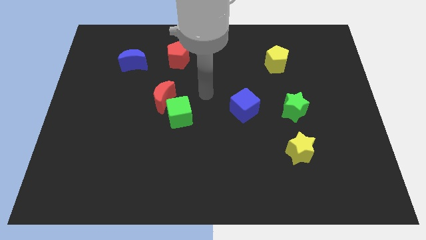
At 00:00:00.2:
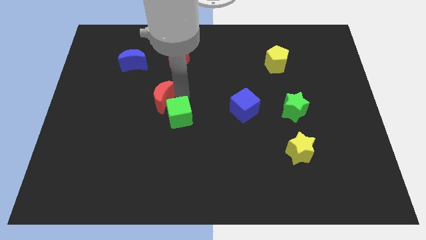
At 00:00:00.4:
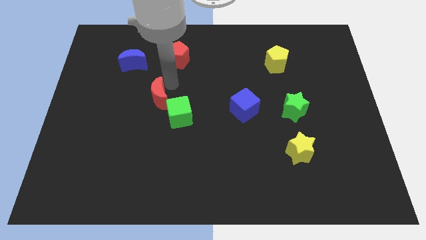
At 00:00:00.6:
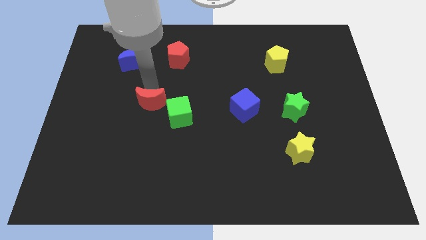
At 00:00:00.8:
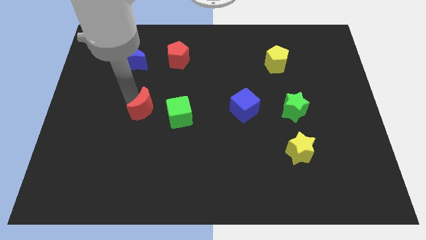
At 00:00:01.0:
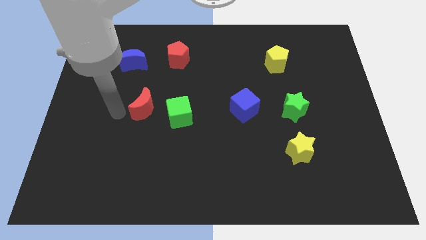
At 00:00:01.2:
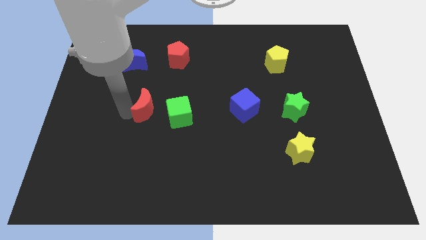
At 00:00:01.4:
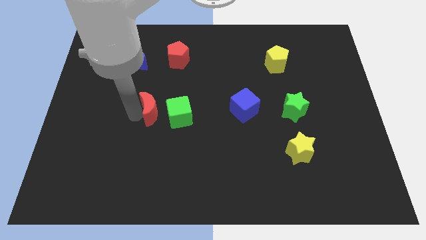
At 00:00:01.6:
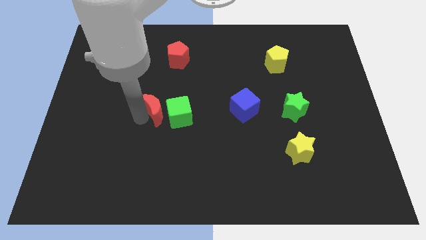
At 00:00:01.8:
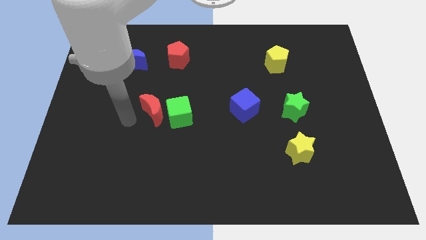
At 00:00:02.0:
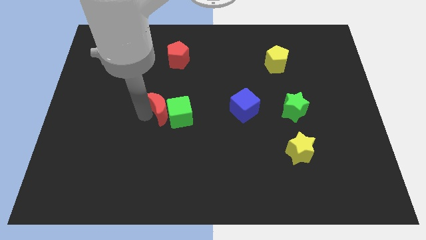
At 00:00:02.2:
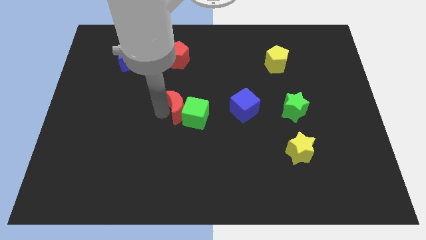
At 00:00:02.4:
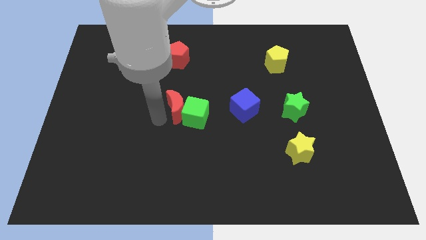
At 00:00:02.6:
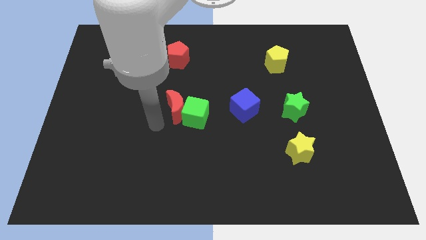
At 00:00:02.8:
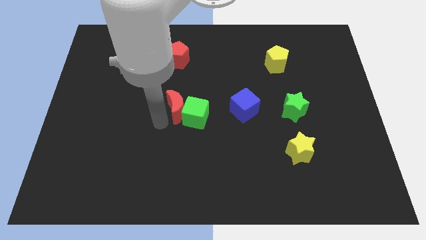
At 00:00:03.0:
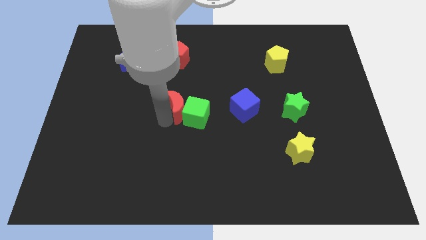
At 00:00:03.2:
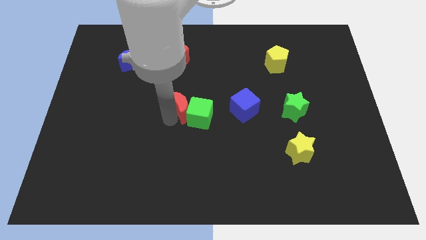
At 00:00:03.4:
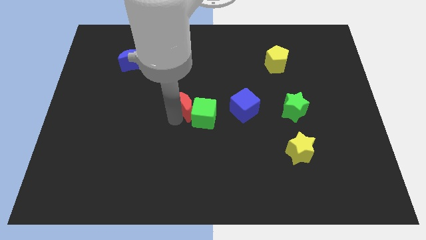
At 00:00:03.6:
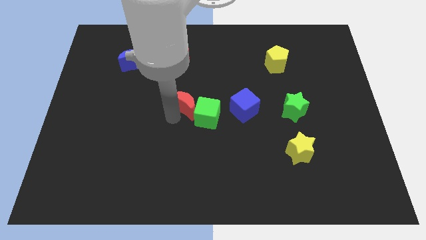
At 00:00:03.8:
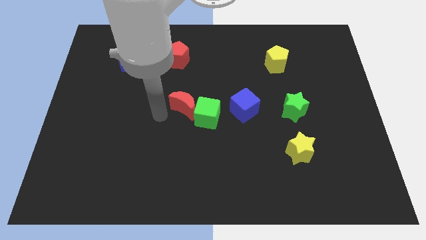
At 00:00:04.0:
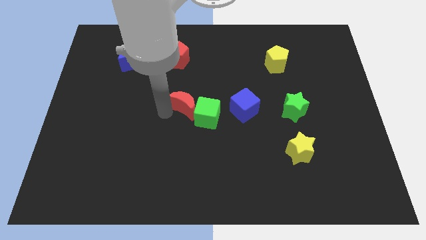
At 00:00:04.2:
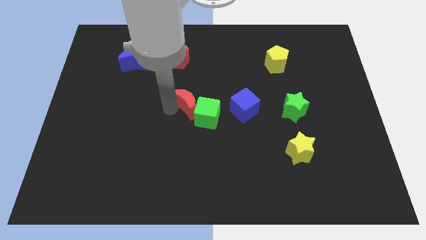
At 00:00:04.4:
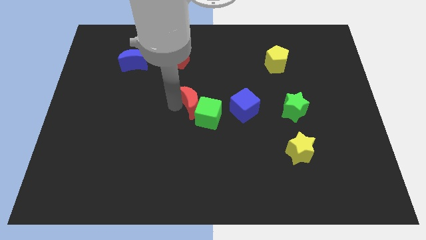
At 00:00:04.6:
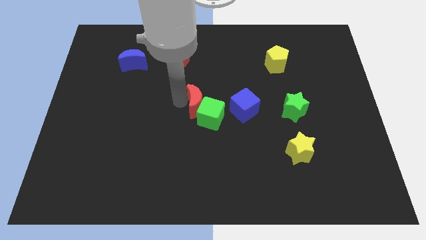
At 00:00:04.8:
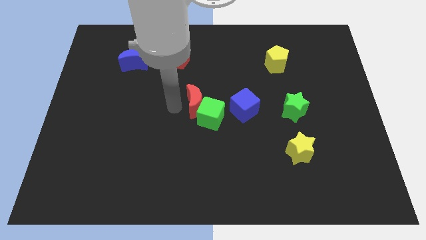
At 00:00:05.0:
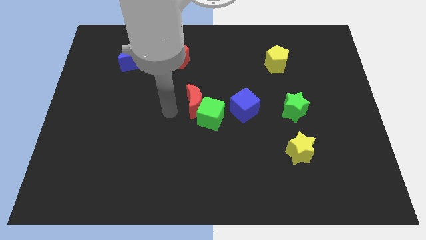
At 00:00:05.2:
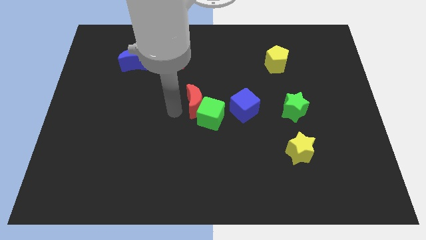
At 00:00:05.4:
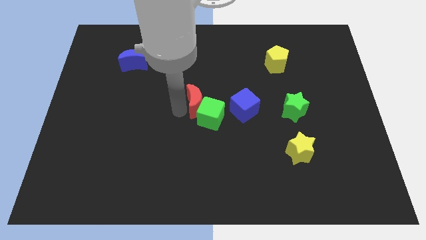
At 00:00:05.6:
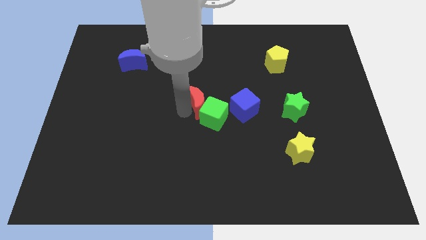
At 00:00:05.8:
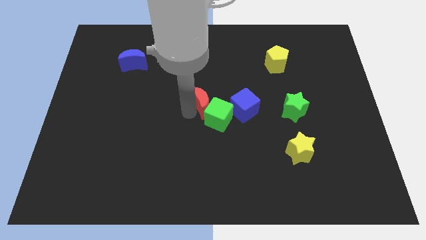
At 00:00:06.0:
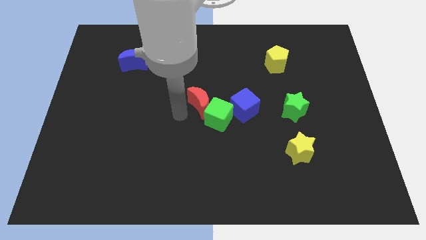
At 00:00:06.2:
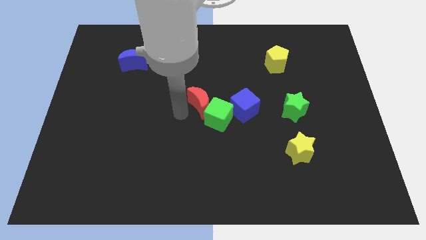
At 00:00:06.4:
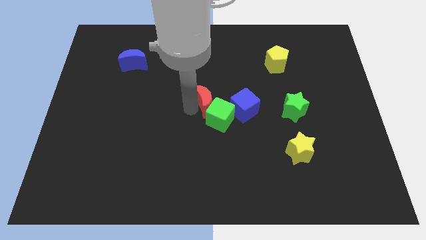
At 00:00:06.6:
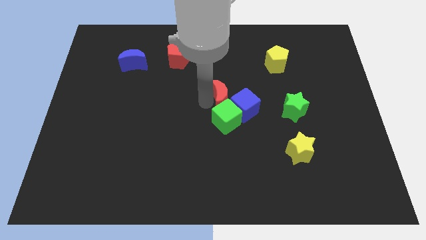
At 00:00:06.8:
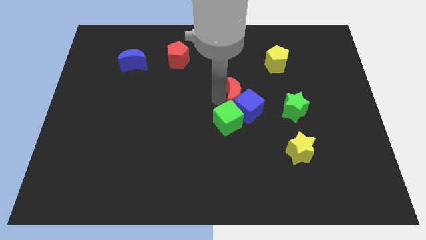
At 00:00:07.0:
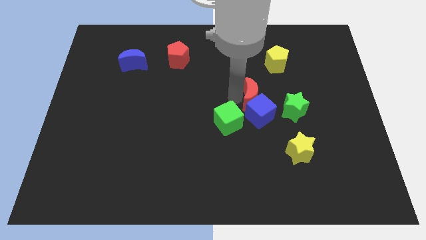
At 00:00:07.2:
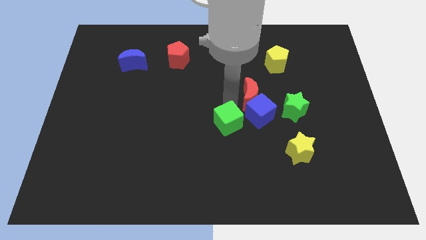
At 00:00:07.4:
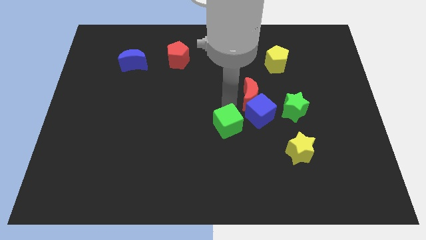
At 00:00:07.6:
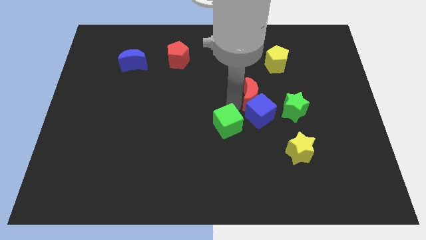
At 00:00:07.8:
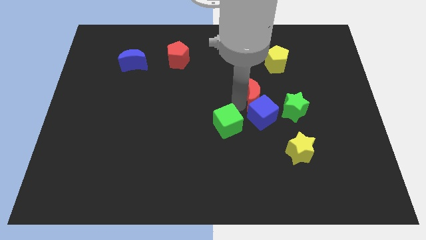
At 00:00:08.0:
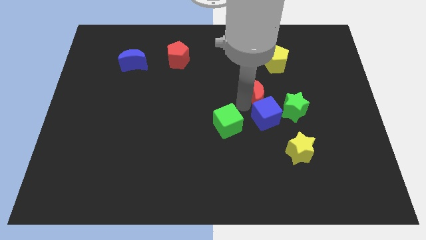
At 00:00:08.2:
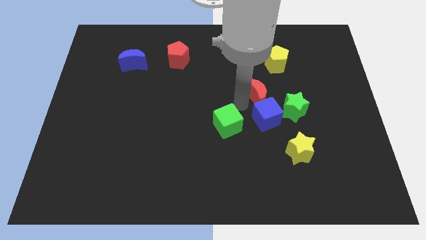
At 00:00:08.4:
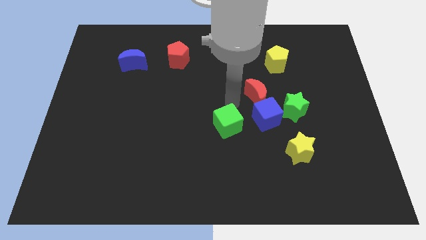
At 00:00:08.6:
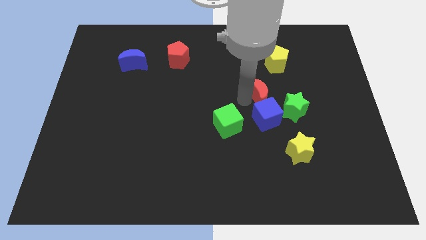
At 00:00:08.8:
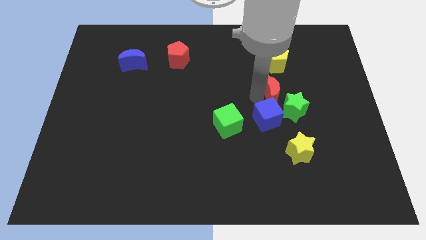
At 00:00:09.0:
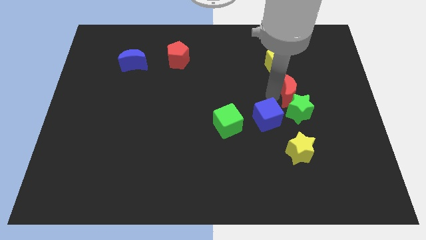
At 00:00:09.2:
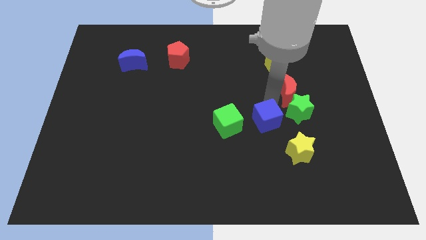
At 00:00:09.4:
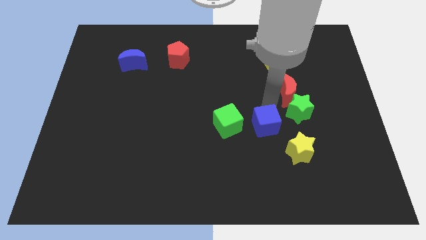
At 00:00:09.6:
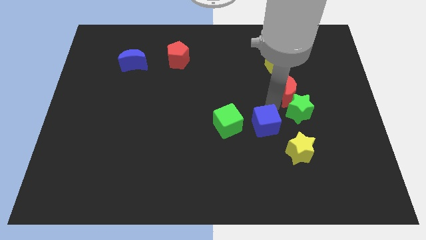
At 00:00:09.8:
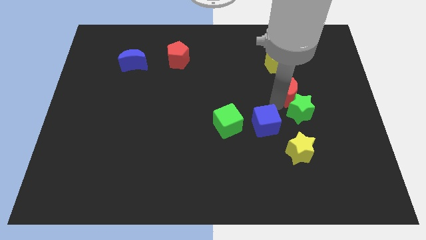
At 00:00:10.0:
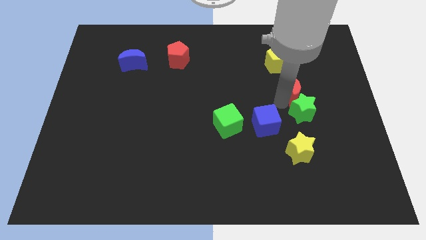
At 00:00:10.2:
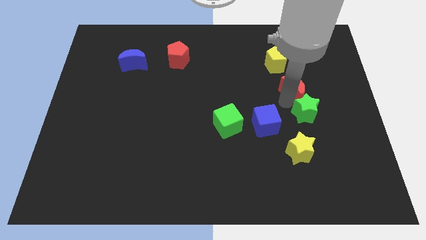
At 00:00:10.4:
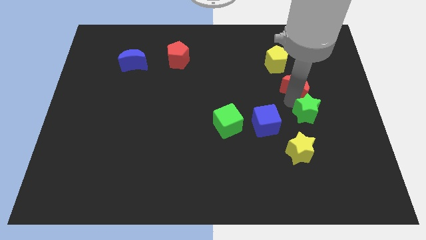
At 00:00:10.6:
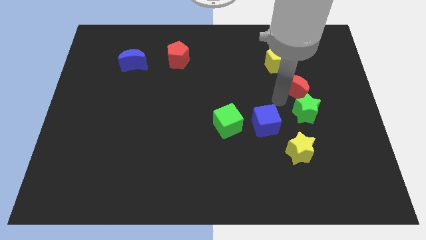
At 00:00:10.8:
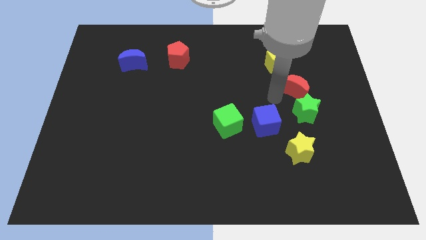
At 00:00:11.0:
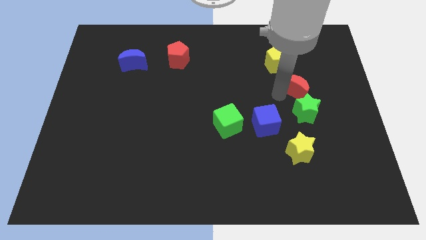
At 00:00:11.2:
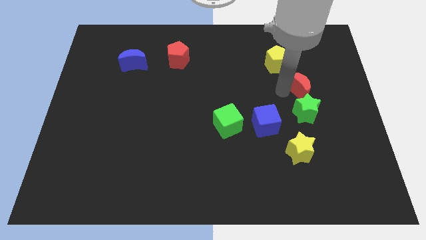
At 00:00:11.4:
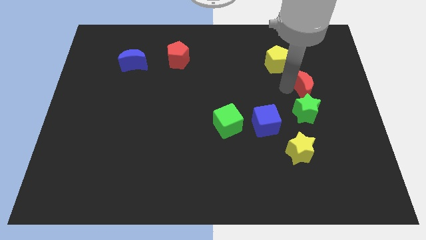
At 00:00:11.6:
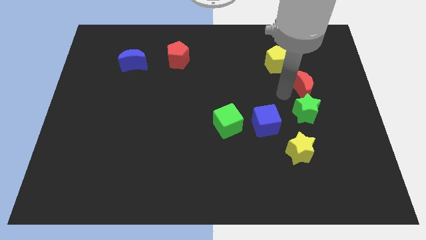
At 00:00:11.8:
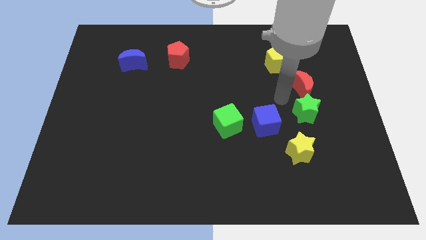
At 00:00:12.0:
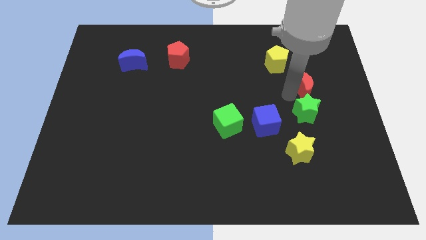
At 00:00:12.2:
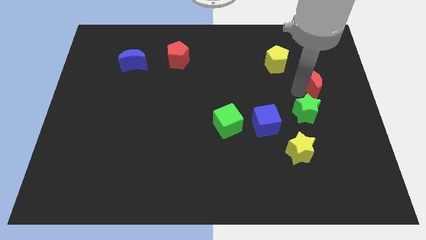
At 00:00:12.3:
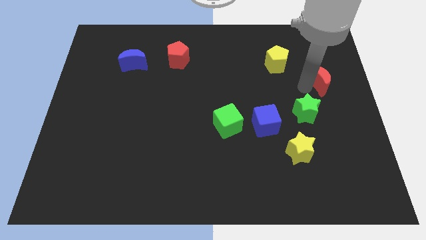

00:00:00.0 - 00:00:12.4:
push the red moon to the center right
